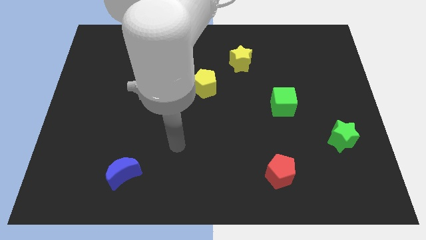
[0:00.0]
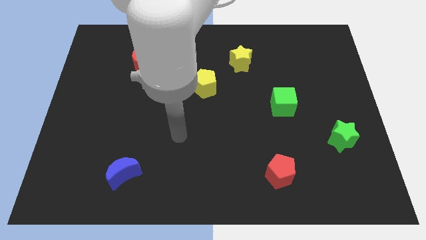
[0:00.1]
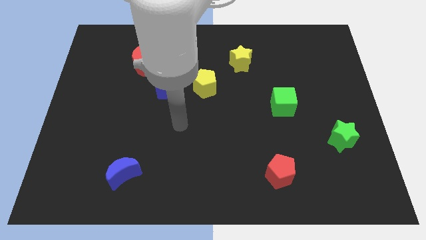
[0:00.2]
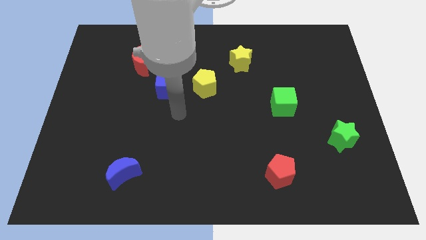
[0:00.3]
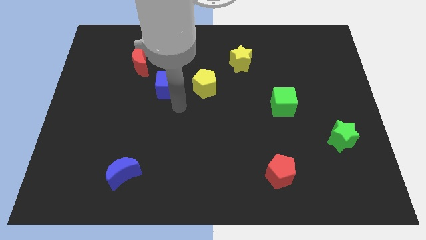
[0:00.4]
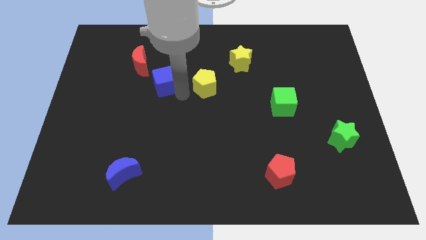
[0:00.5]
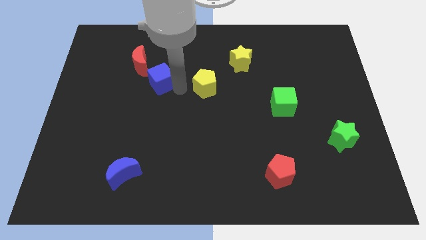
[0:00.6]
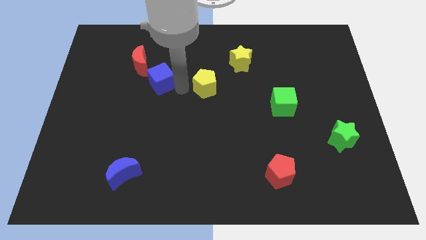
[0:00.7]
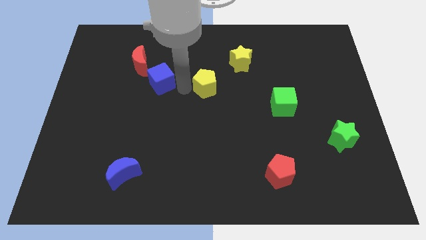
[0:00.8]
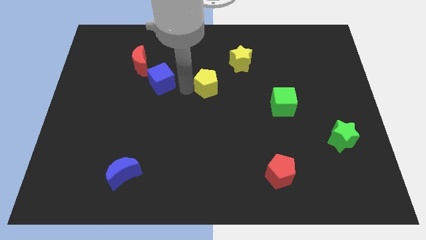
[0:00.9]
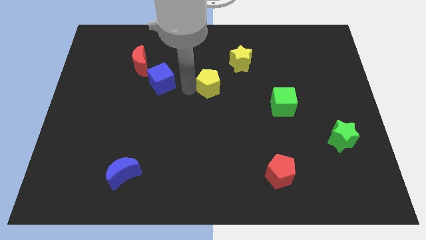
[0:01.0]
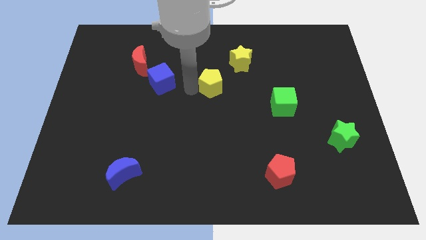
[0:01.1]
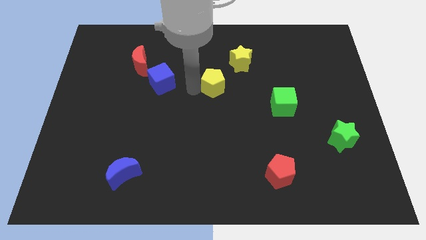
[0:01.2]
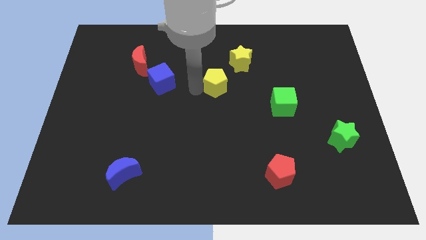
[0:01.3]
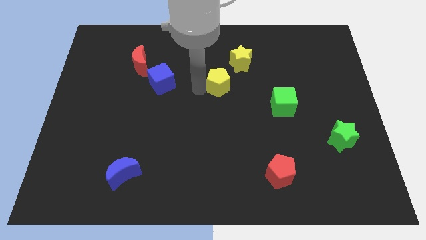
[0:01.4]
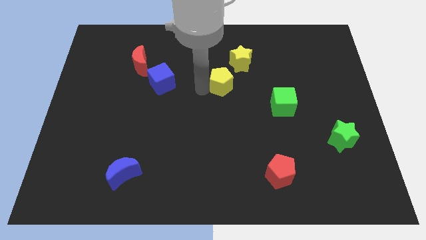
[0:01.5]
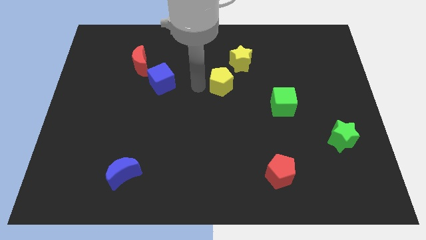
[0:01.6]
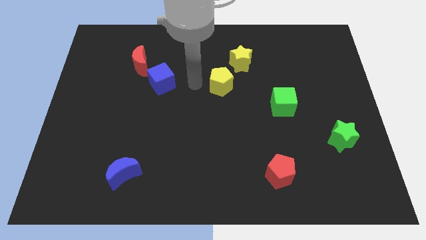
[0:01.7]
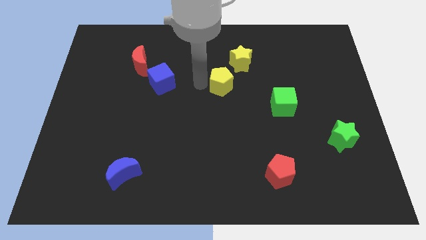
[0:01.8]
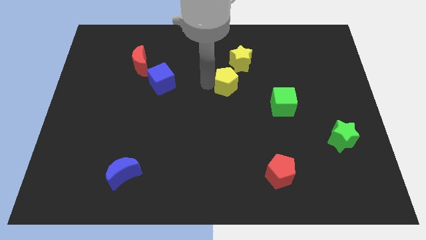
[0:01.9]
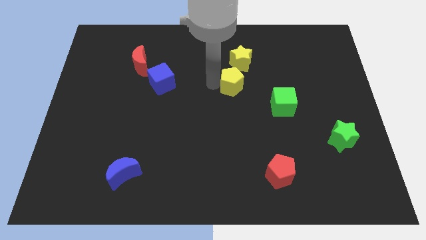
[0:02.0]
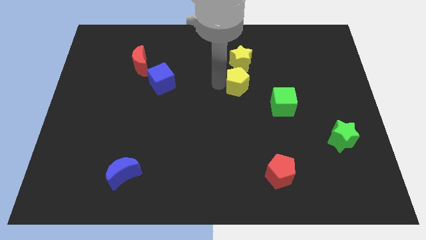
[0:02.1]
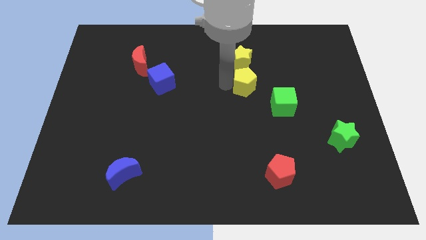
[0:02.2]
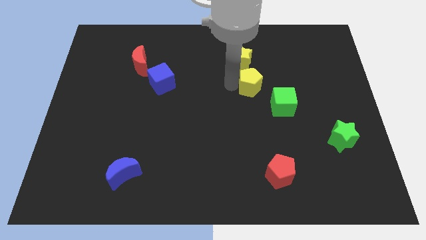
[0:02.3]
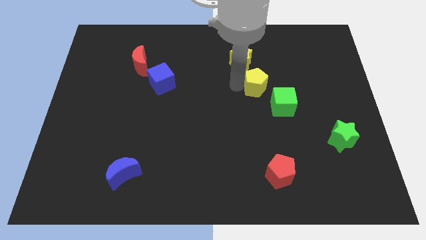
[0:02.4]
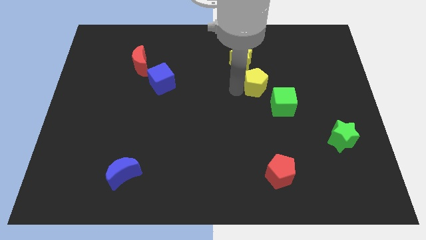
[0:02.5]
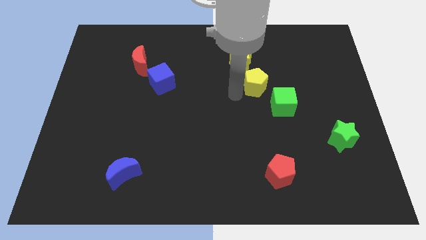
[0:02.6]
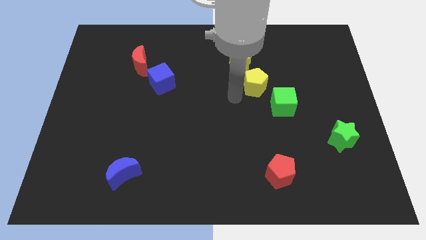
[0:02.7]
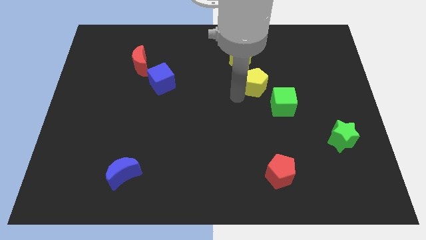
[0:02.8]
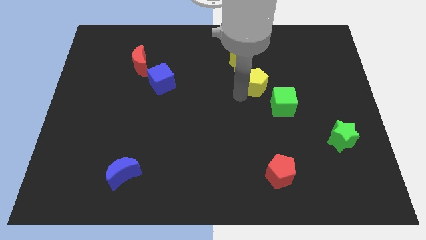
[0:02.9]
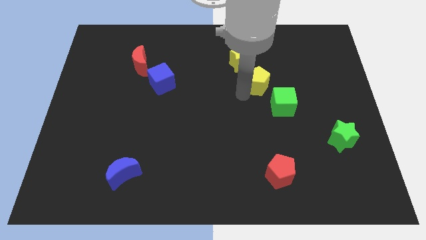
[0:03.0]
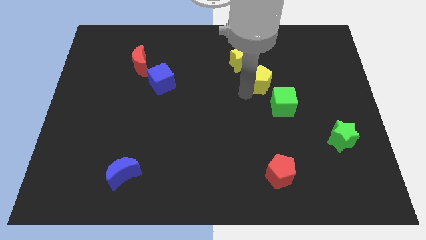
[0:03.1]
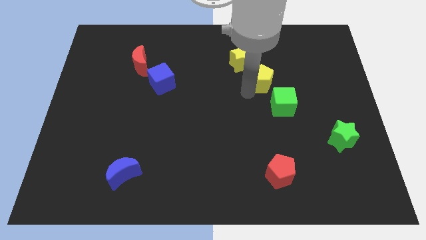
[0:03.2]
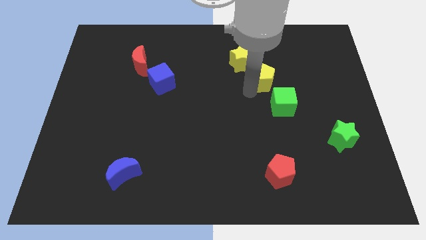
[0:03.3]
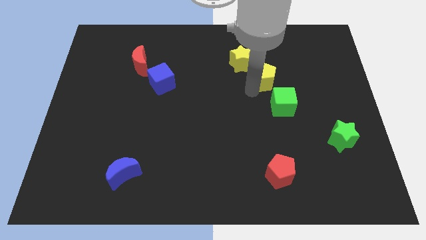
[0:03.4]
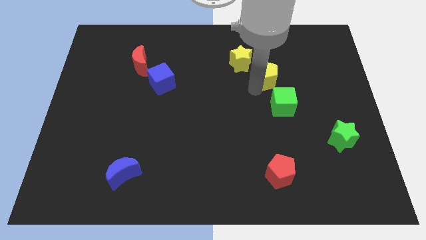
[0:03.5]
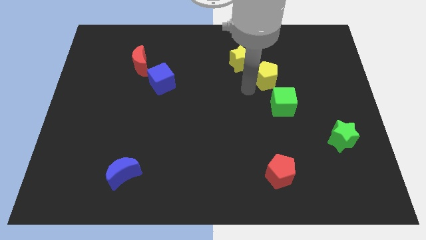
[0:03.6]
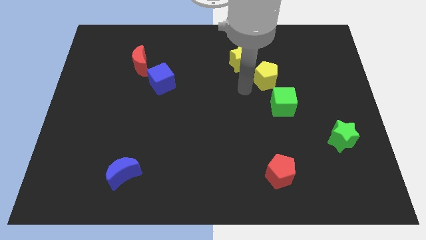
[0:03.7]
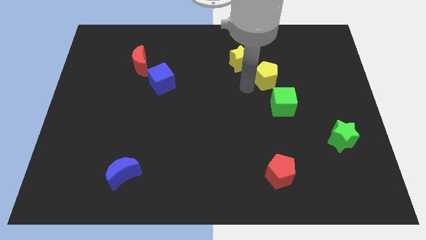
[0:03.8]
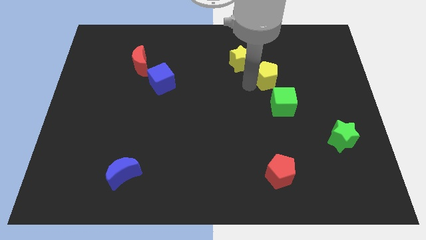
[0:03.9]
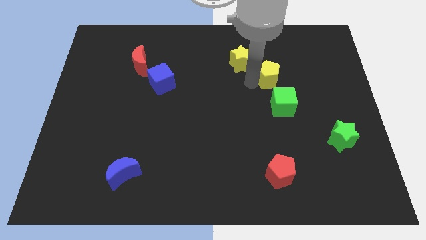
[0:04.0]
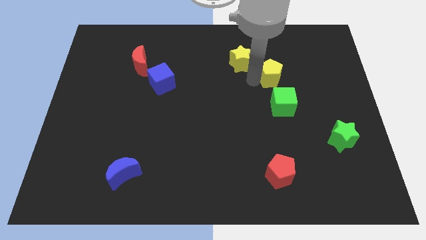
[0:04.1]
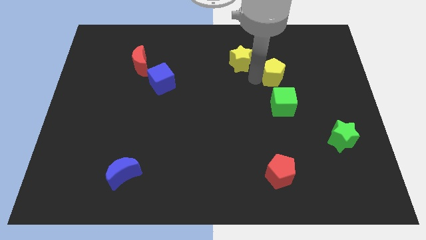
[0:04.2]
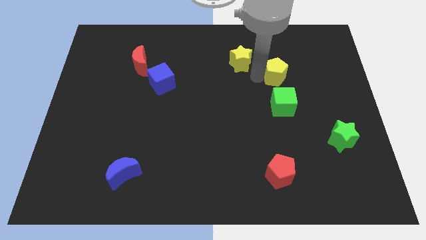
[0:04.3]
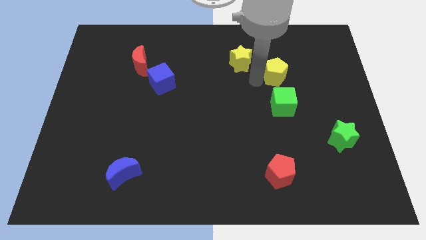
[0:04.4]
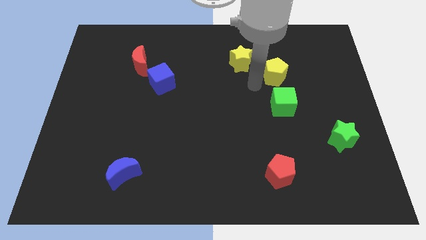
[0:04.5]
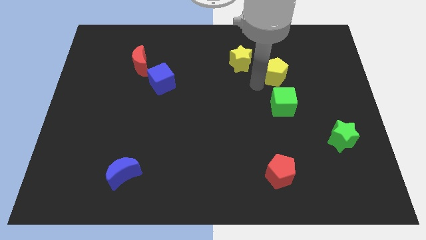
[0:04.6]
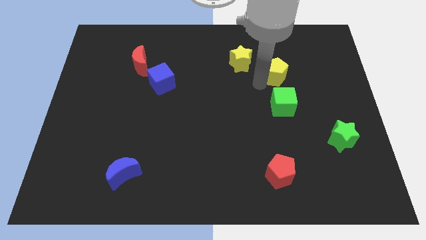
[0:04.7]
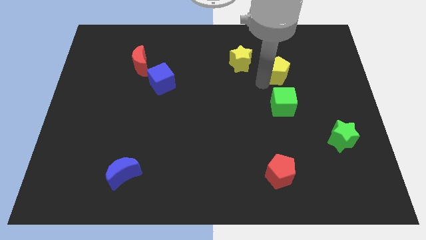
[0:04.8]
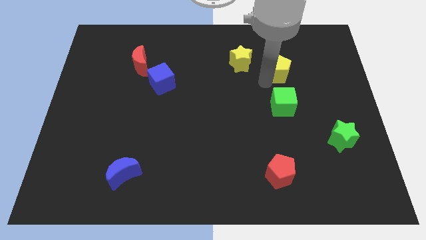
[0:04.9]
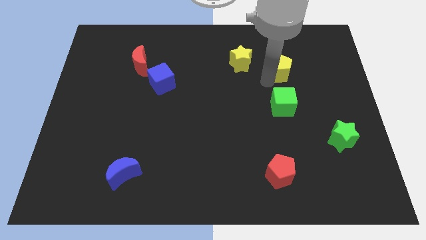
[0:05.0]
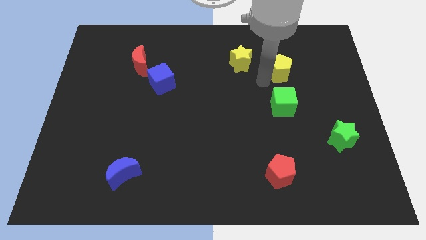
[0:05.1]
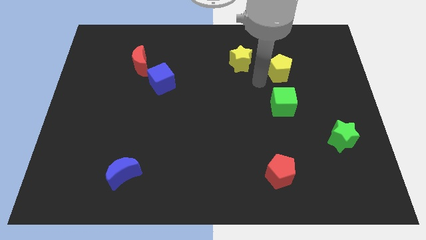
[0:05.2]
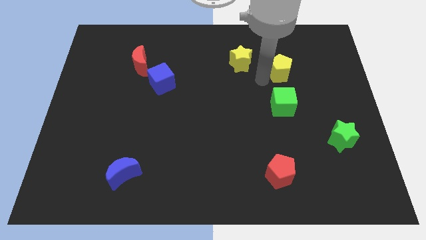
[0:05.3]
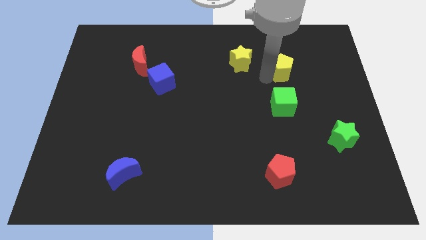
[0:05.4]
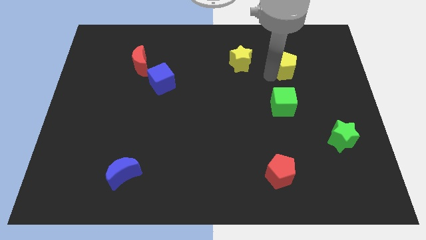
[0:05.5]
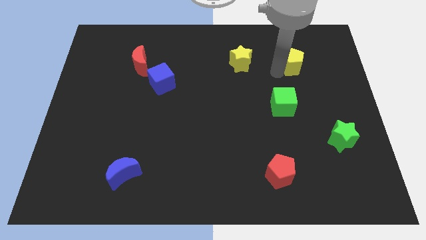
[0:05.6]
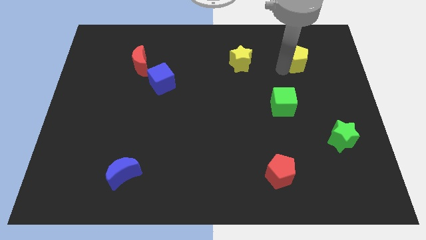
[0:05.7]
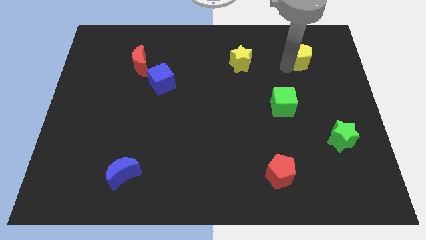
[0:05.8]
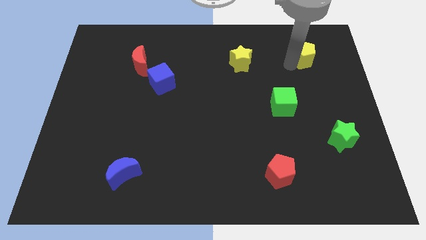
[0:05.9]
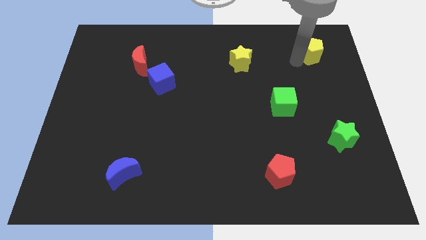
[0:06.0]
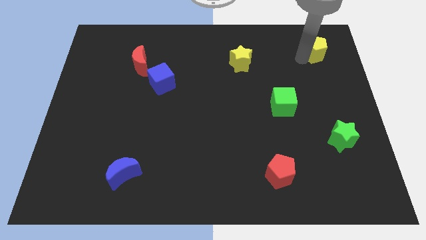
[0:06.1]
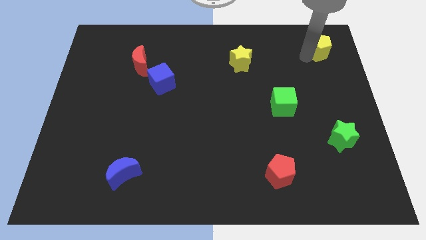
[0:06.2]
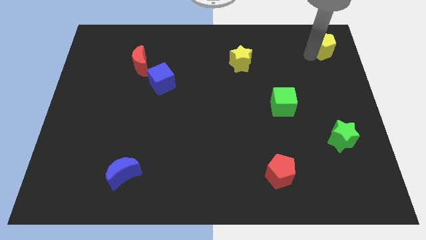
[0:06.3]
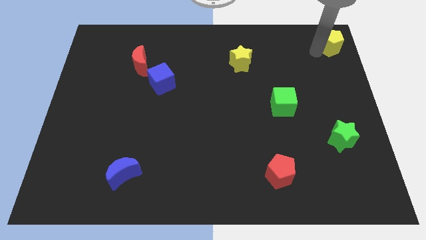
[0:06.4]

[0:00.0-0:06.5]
move the yellow pentagon to the top right of the board

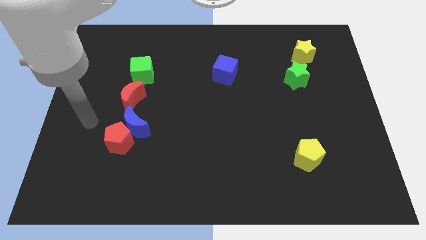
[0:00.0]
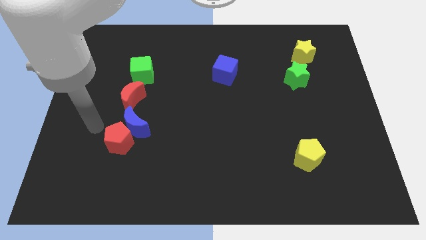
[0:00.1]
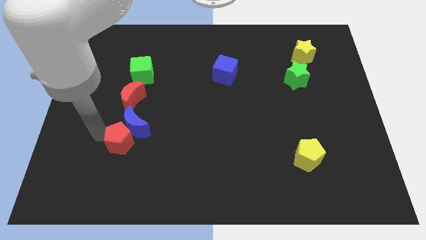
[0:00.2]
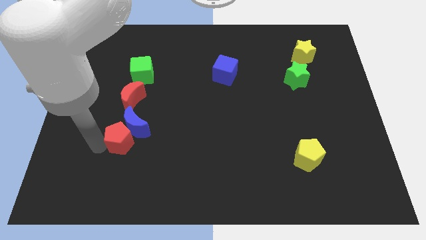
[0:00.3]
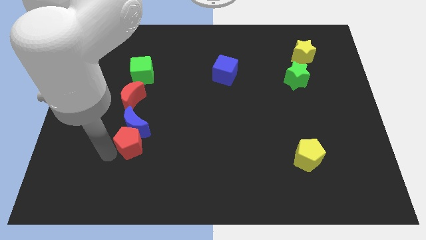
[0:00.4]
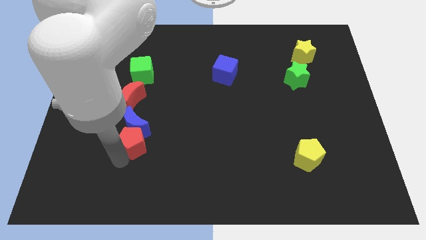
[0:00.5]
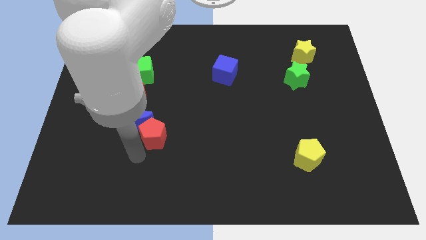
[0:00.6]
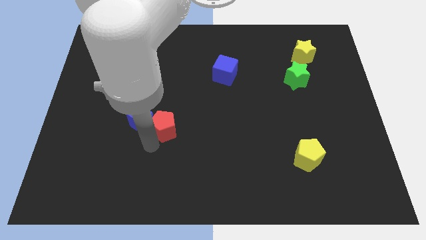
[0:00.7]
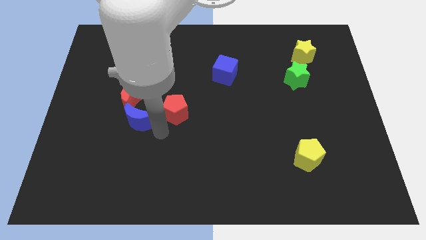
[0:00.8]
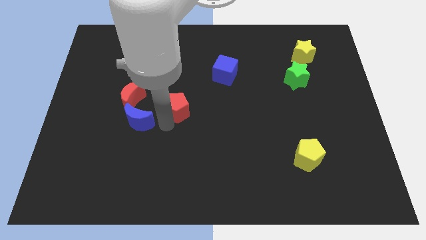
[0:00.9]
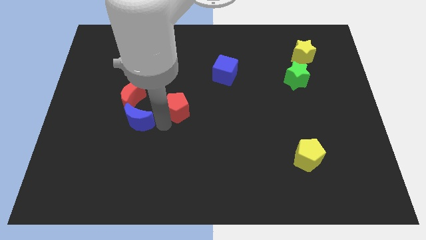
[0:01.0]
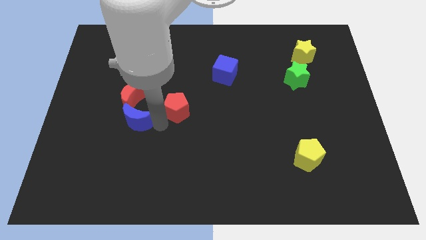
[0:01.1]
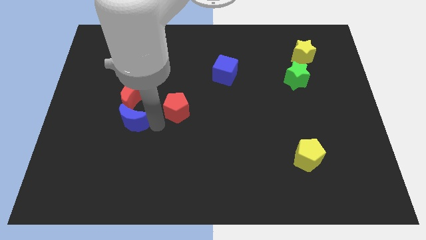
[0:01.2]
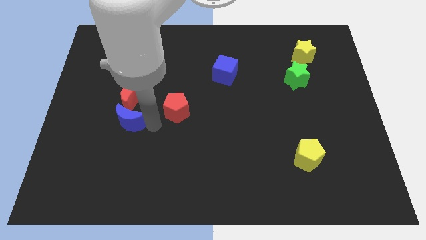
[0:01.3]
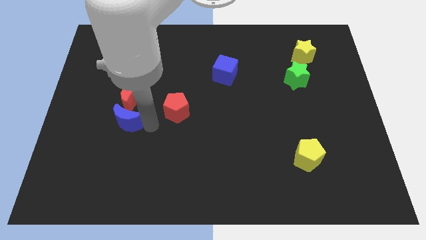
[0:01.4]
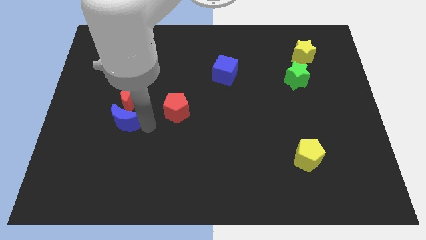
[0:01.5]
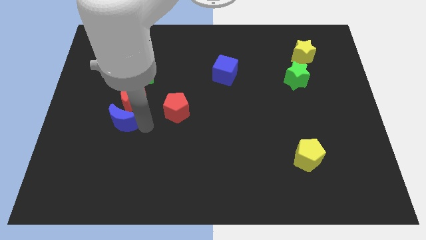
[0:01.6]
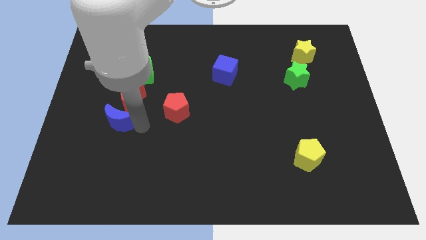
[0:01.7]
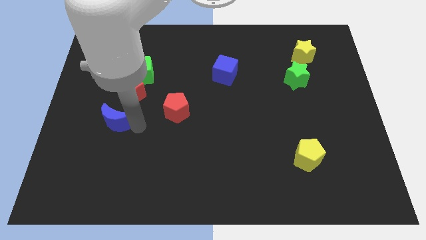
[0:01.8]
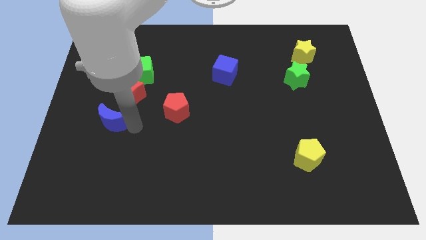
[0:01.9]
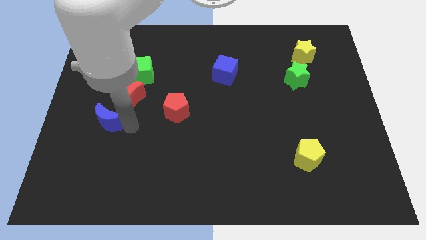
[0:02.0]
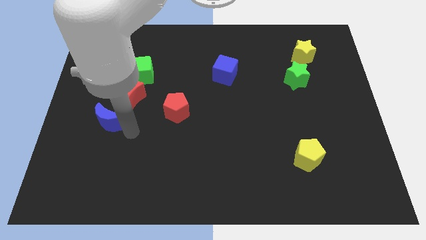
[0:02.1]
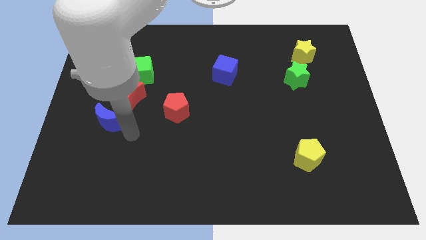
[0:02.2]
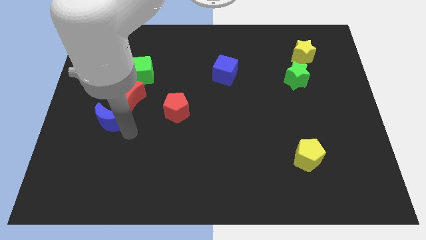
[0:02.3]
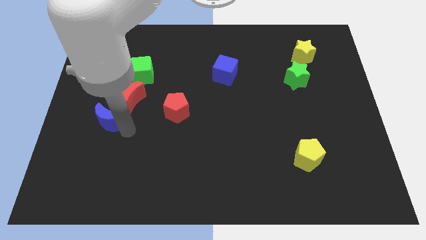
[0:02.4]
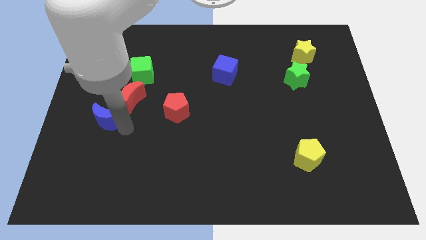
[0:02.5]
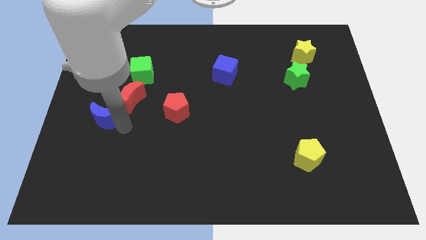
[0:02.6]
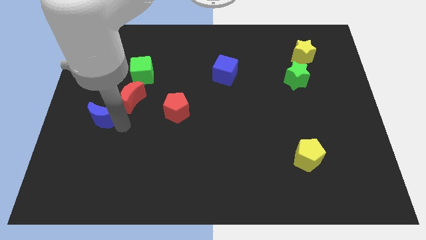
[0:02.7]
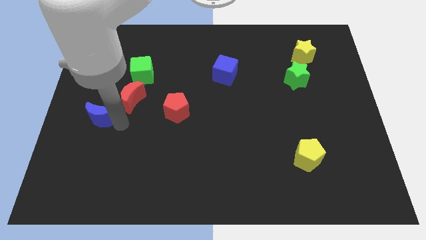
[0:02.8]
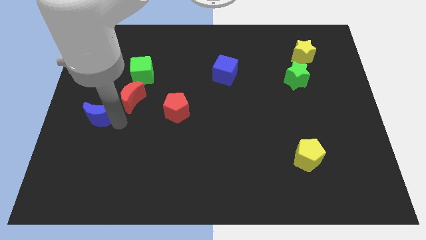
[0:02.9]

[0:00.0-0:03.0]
slide the blue moon to the center left
